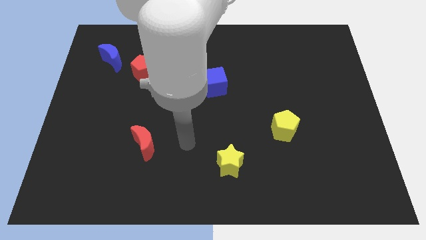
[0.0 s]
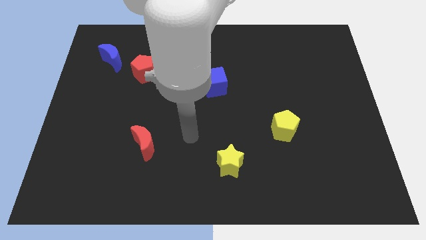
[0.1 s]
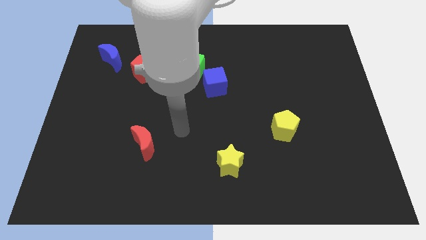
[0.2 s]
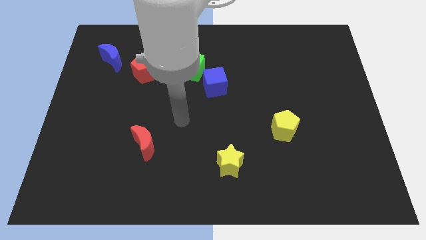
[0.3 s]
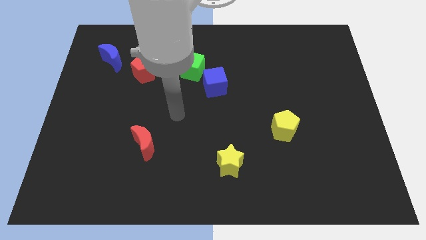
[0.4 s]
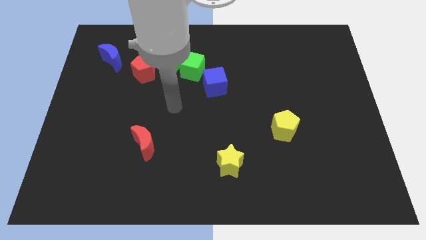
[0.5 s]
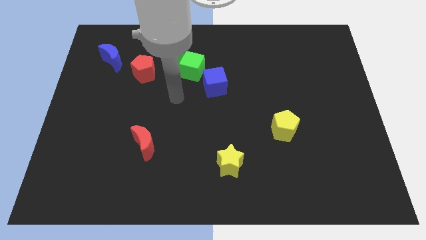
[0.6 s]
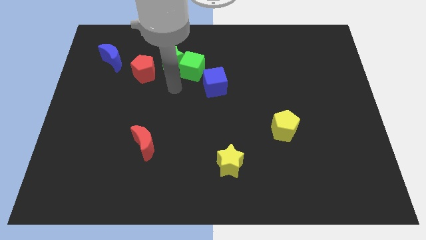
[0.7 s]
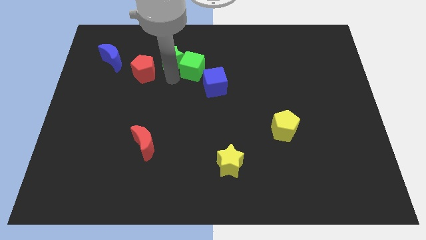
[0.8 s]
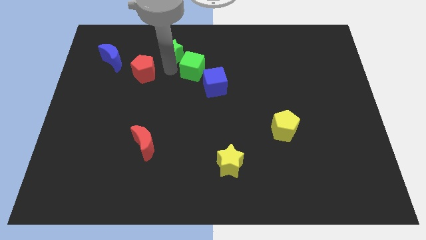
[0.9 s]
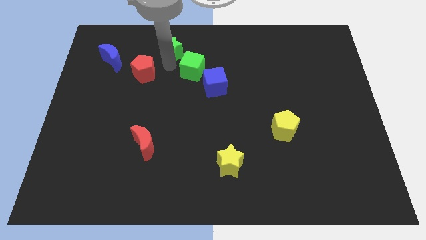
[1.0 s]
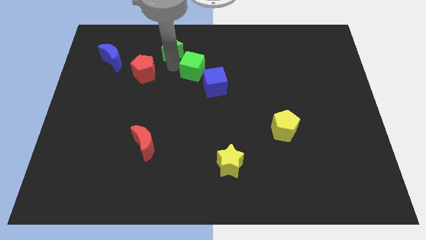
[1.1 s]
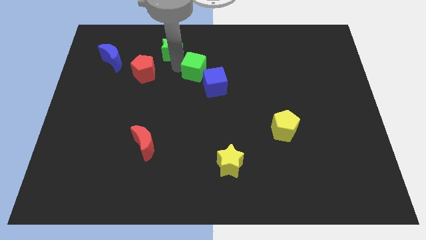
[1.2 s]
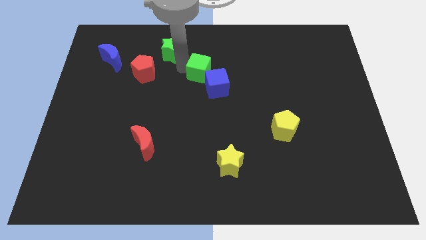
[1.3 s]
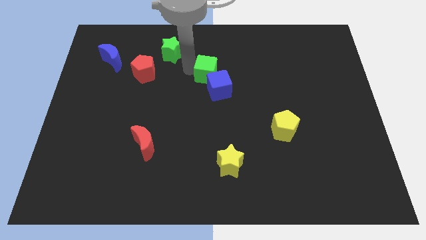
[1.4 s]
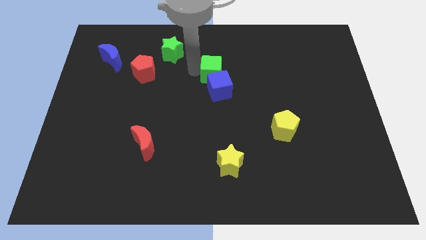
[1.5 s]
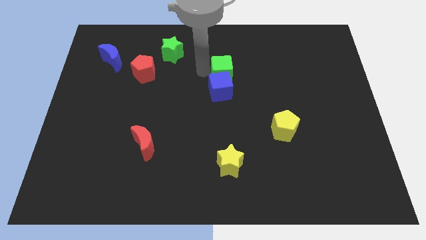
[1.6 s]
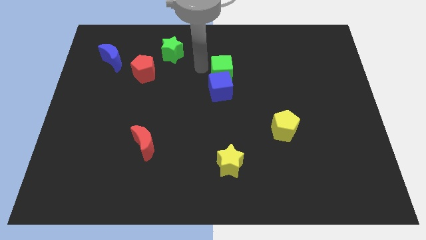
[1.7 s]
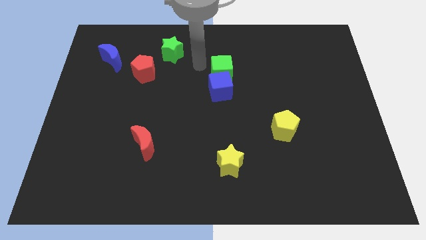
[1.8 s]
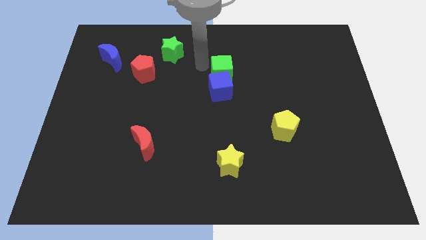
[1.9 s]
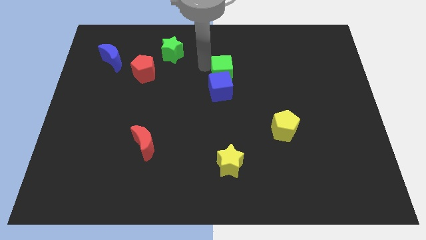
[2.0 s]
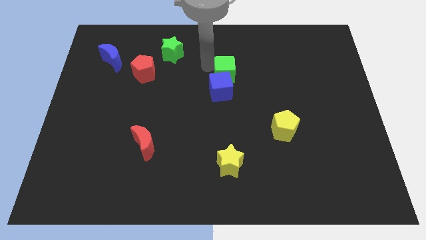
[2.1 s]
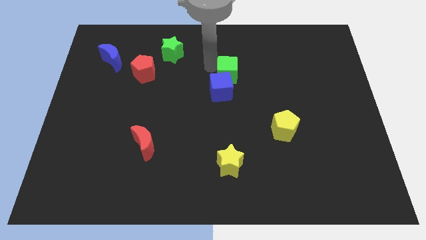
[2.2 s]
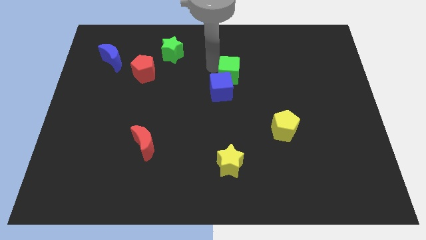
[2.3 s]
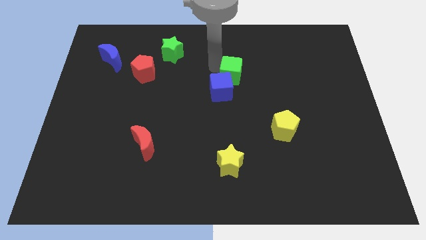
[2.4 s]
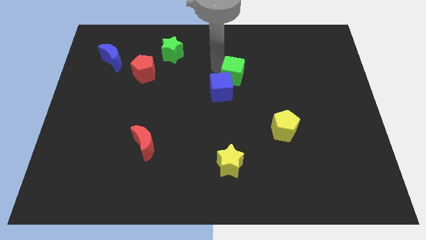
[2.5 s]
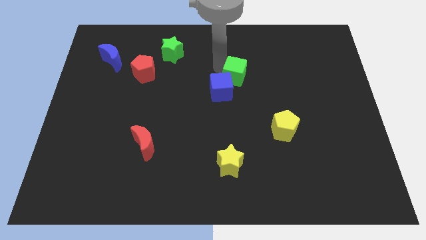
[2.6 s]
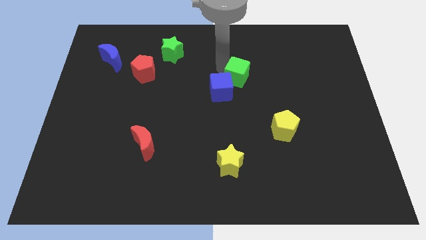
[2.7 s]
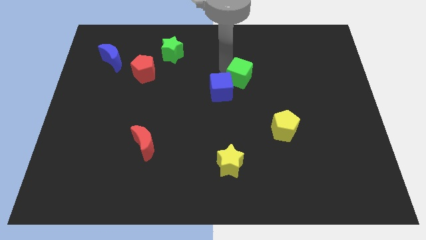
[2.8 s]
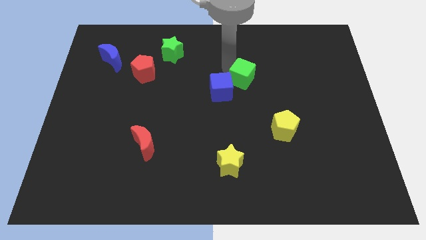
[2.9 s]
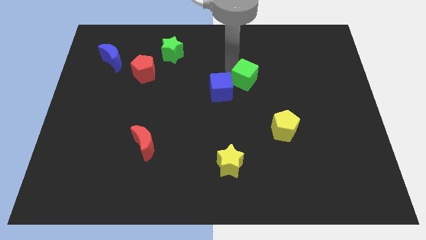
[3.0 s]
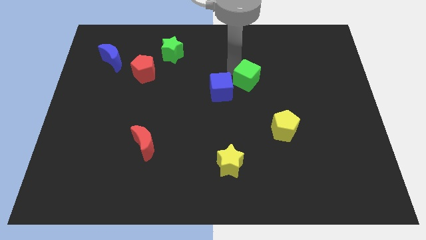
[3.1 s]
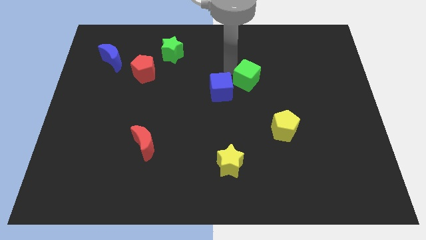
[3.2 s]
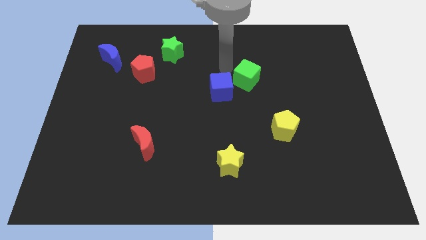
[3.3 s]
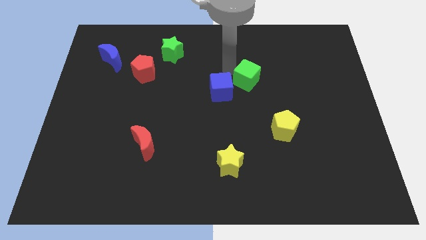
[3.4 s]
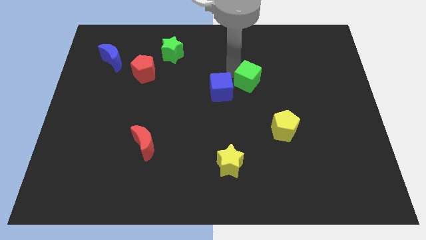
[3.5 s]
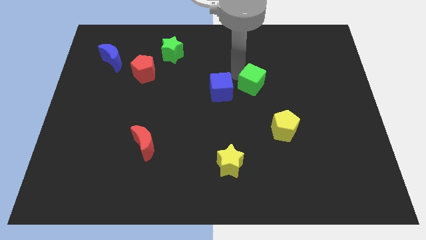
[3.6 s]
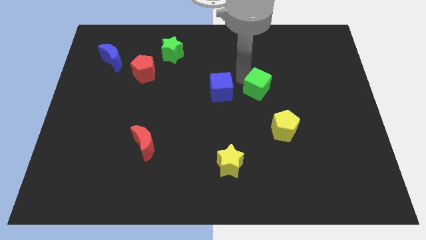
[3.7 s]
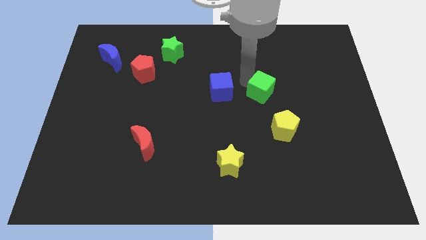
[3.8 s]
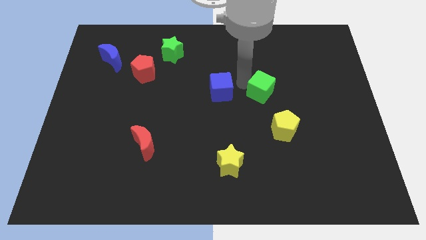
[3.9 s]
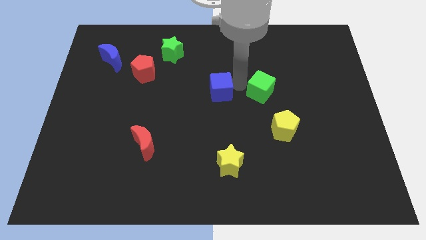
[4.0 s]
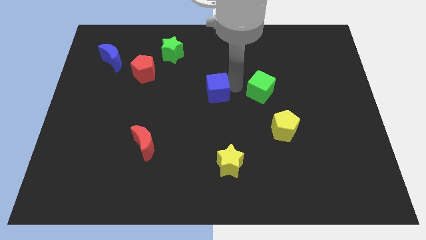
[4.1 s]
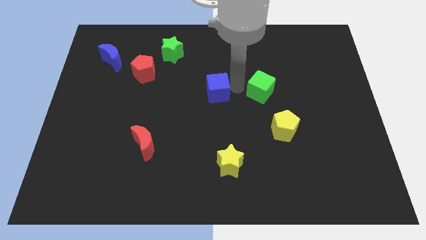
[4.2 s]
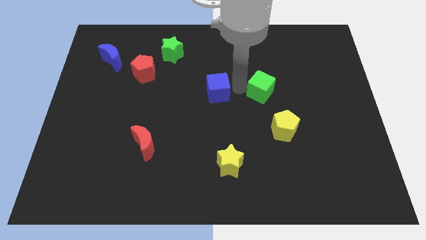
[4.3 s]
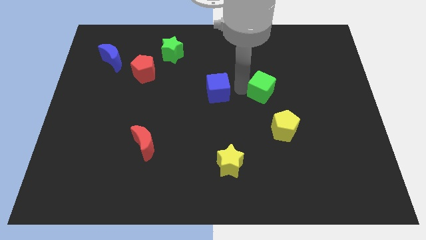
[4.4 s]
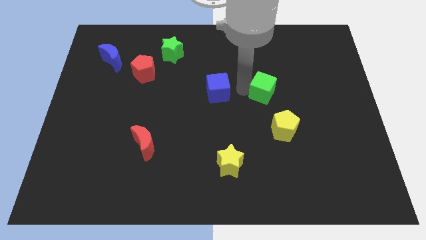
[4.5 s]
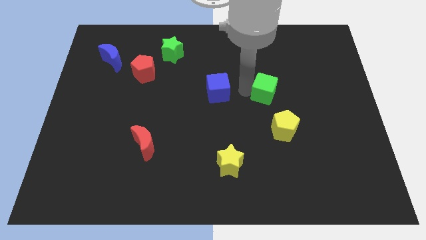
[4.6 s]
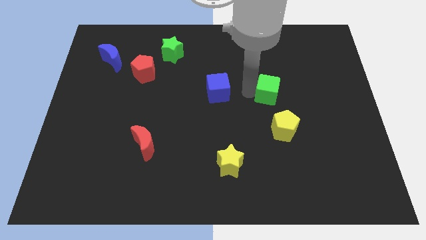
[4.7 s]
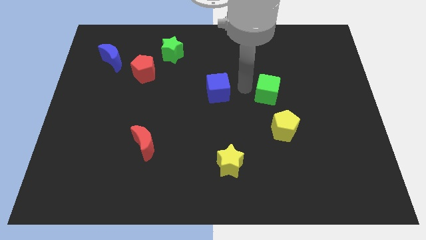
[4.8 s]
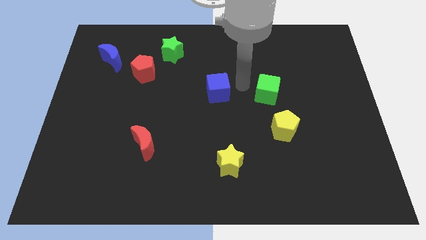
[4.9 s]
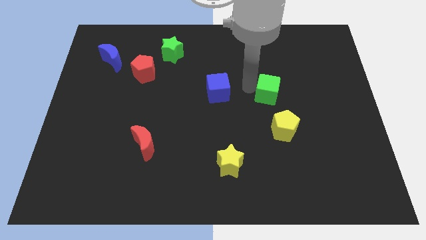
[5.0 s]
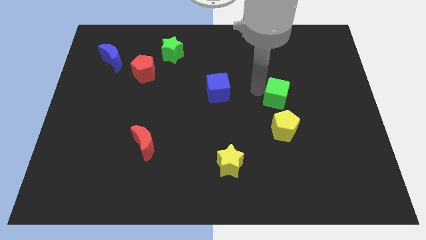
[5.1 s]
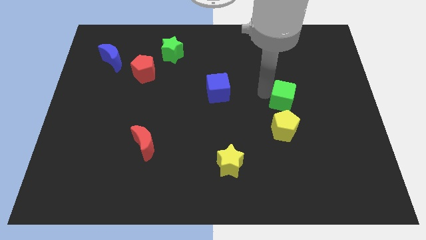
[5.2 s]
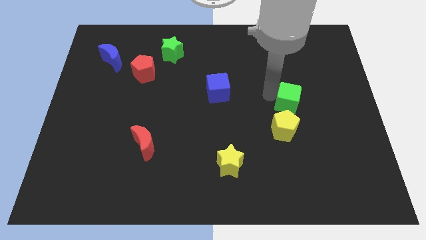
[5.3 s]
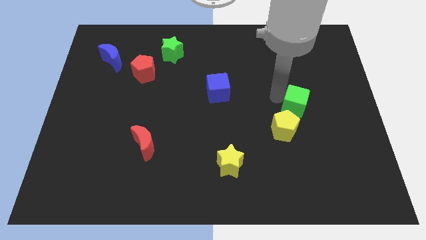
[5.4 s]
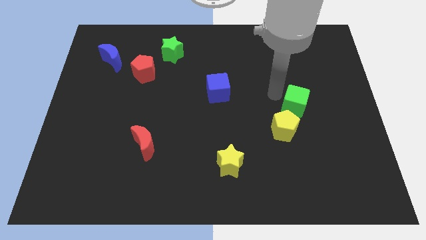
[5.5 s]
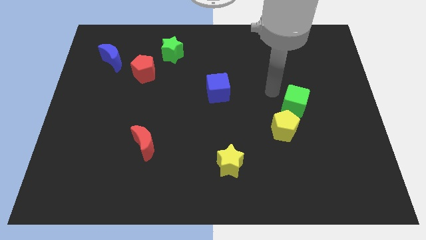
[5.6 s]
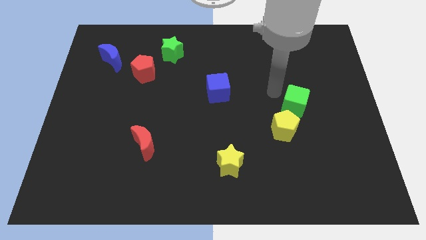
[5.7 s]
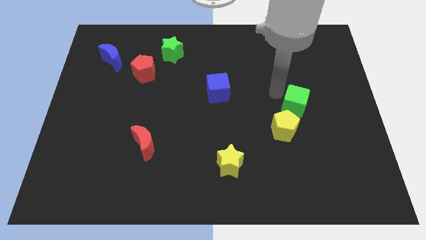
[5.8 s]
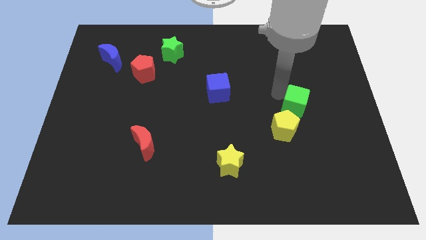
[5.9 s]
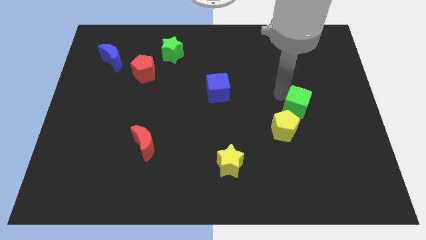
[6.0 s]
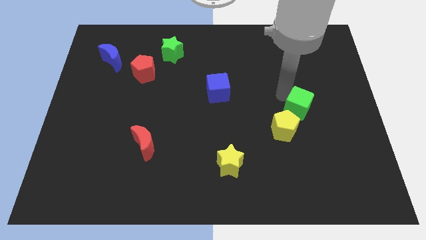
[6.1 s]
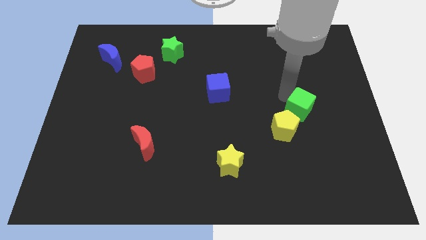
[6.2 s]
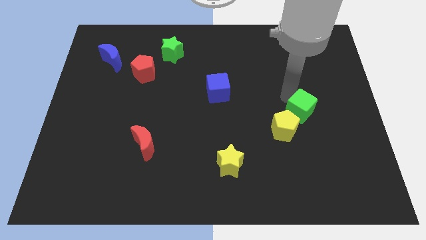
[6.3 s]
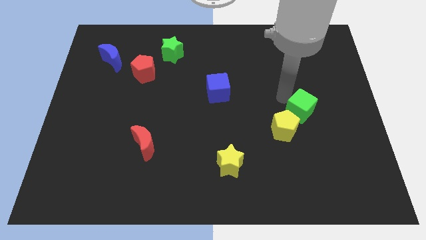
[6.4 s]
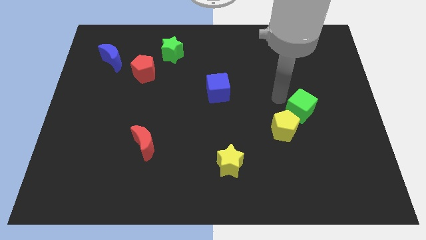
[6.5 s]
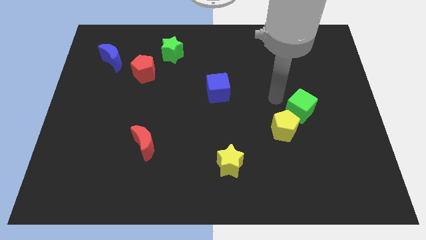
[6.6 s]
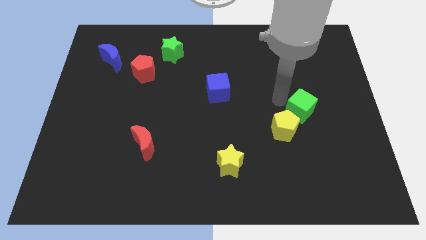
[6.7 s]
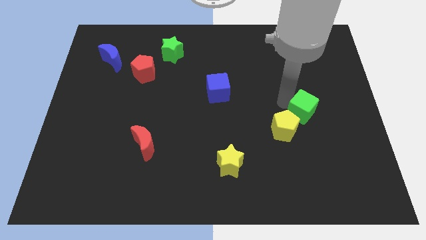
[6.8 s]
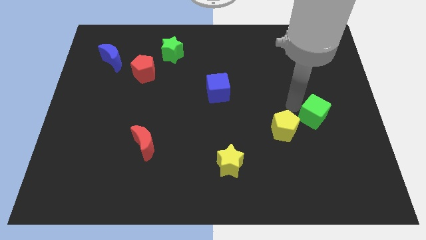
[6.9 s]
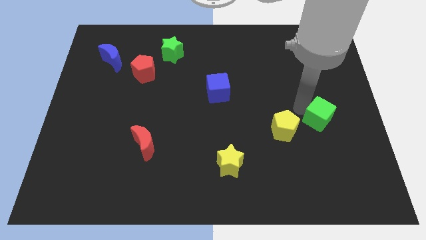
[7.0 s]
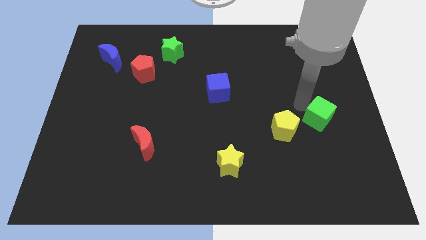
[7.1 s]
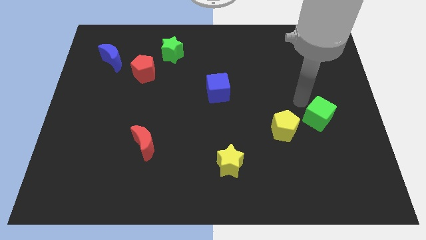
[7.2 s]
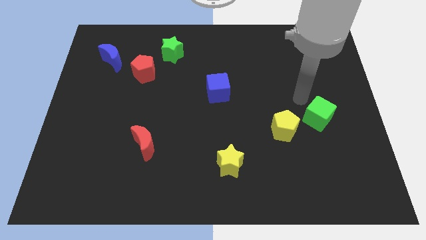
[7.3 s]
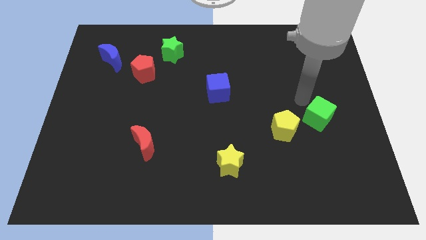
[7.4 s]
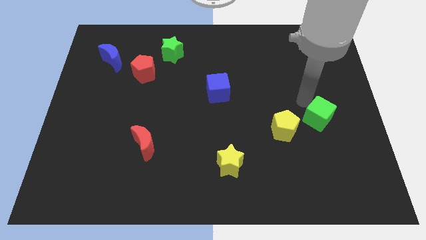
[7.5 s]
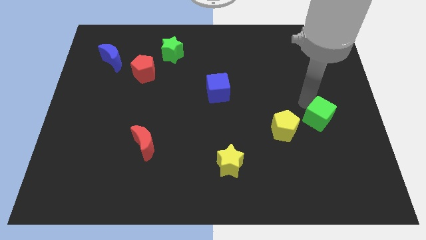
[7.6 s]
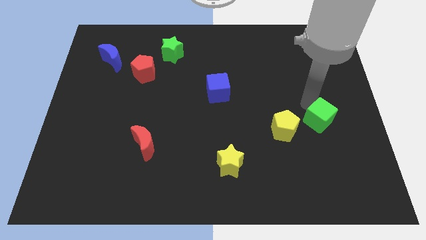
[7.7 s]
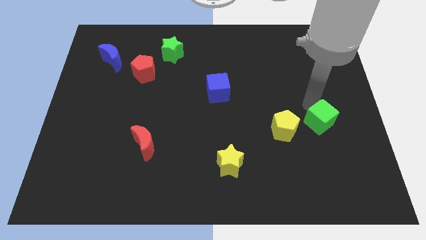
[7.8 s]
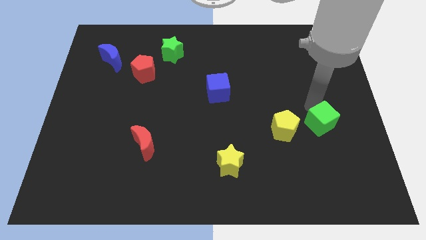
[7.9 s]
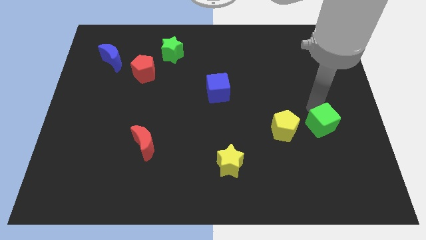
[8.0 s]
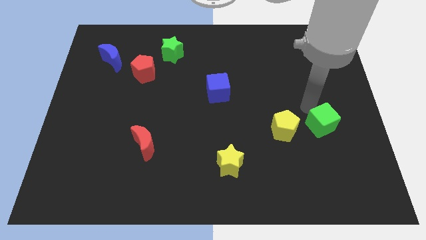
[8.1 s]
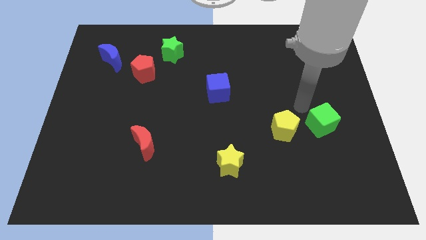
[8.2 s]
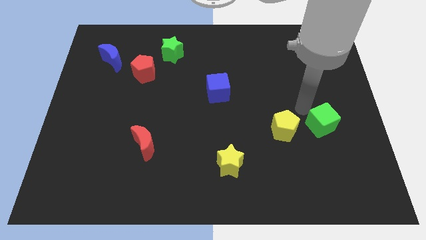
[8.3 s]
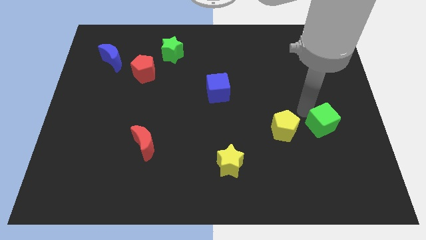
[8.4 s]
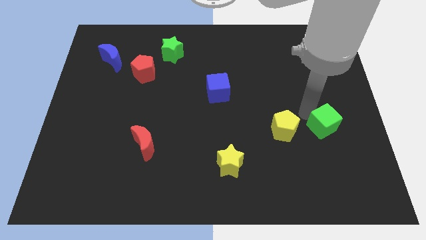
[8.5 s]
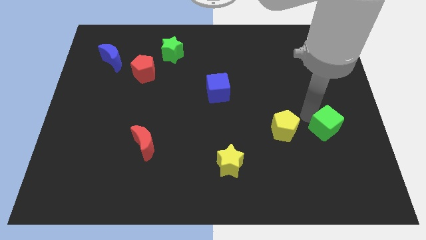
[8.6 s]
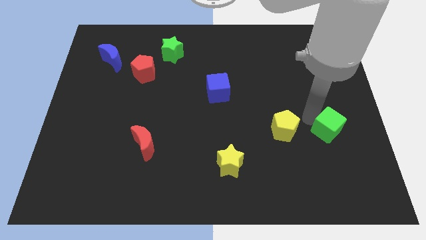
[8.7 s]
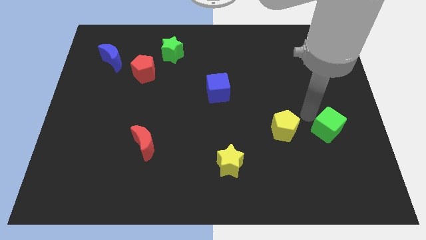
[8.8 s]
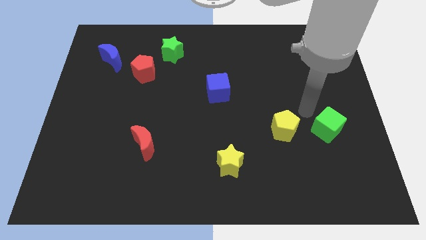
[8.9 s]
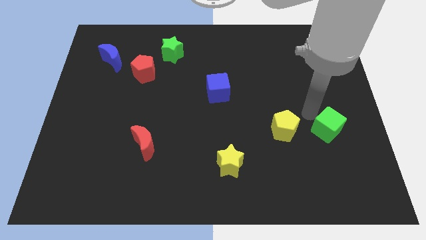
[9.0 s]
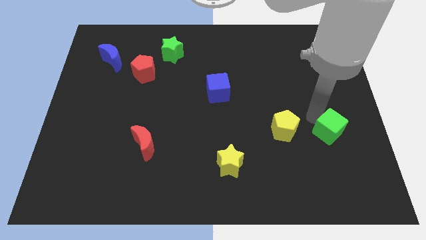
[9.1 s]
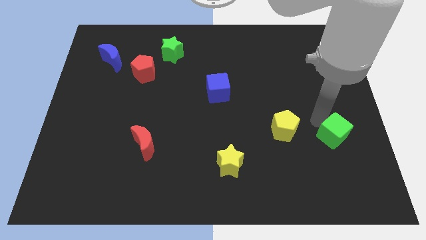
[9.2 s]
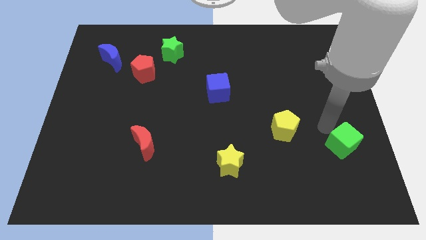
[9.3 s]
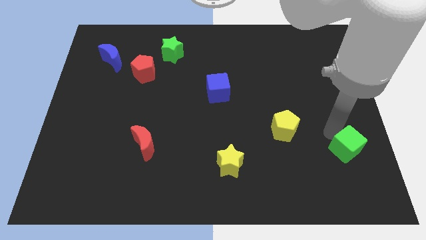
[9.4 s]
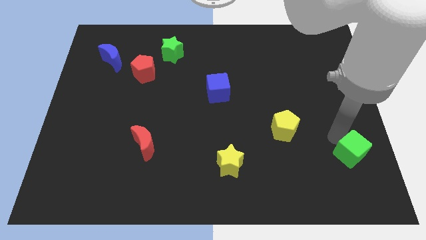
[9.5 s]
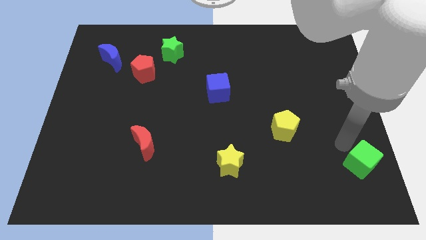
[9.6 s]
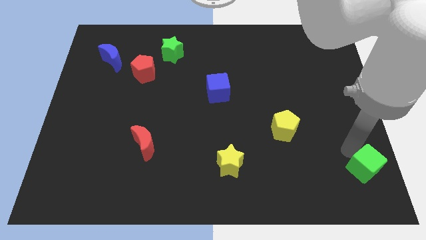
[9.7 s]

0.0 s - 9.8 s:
slide the green cube to the bottom right corner
